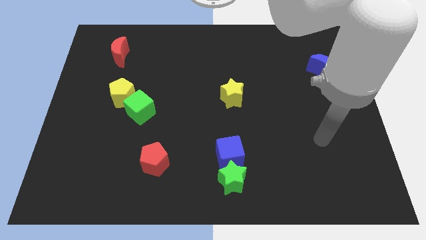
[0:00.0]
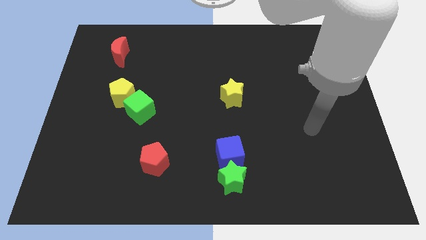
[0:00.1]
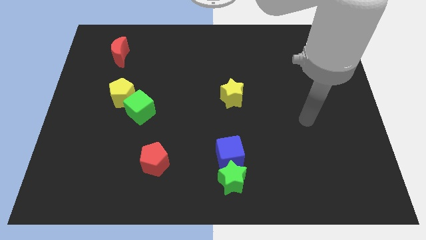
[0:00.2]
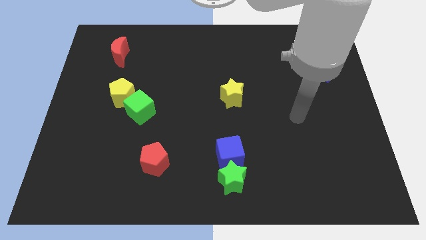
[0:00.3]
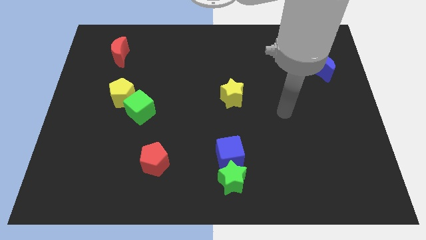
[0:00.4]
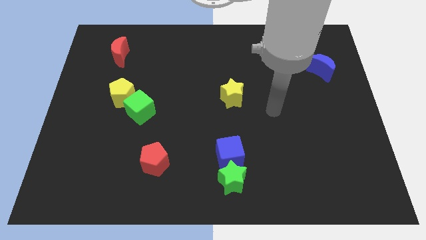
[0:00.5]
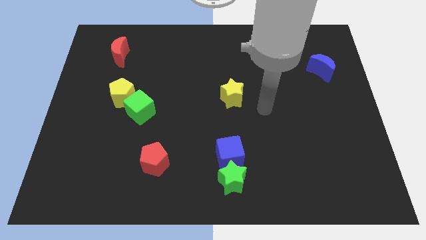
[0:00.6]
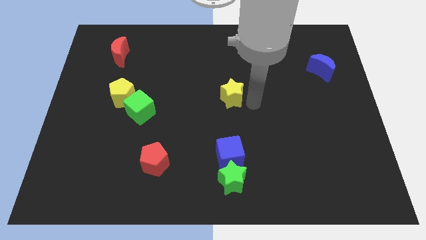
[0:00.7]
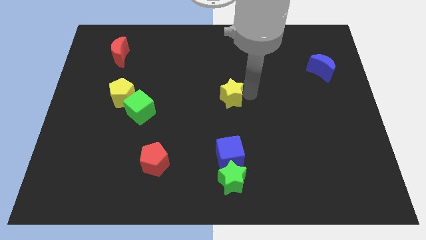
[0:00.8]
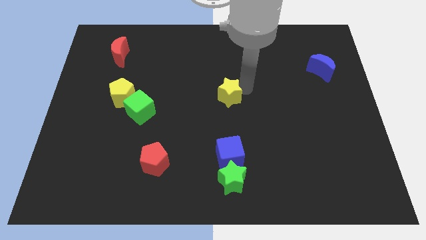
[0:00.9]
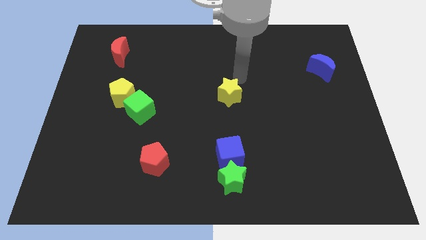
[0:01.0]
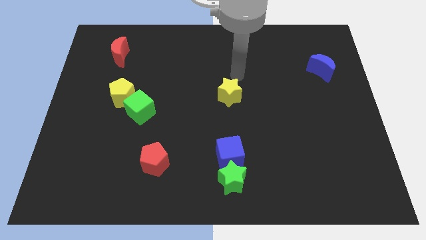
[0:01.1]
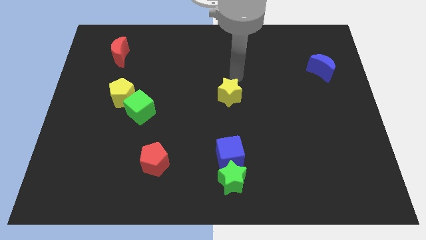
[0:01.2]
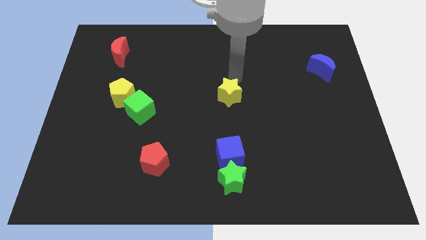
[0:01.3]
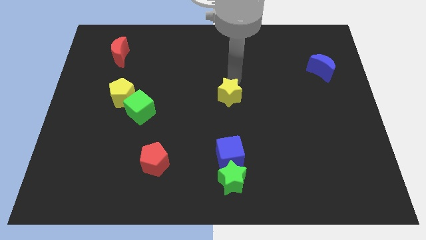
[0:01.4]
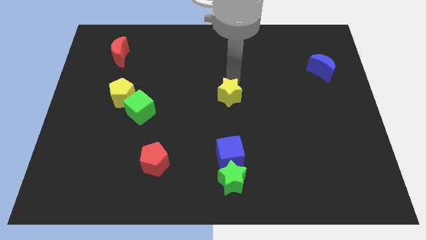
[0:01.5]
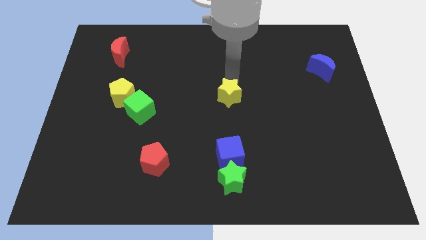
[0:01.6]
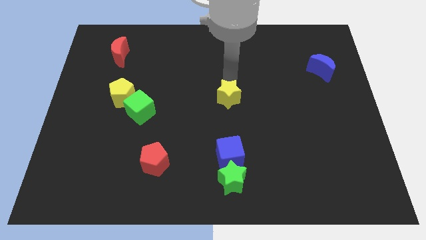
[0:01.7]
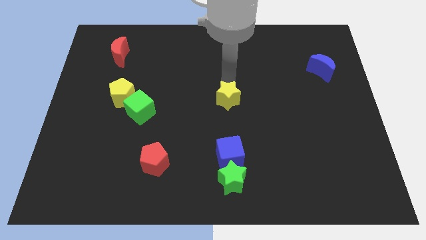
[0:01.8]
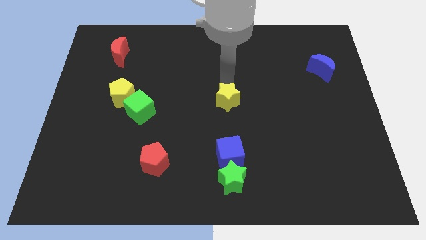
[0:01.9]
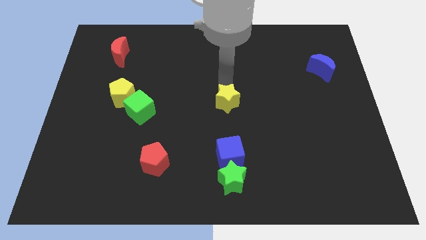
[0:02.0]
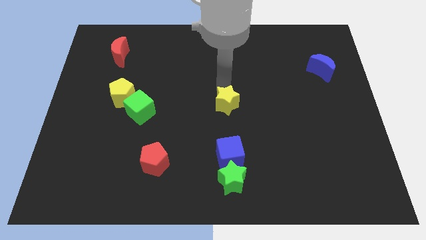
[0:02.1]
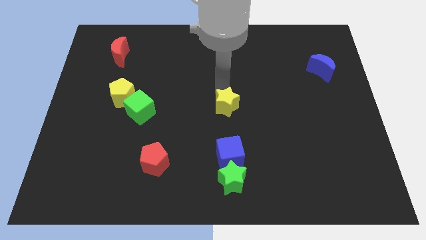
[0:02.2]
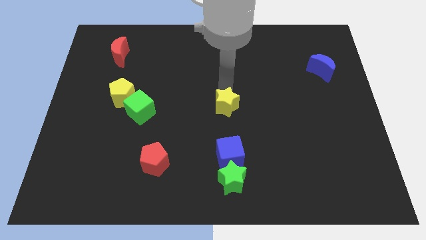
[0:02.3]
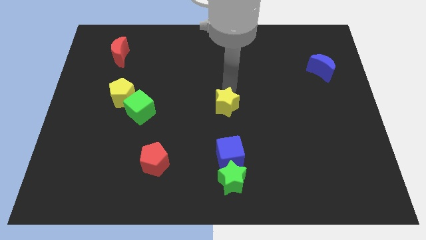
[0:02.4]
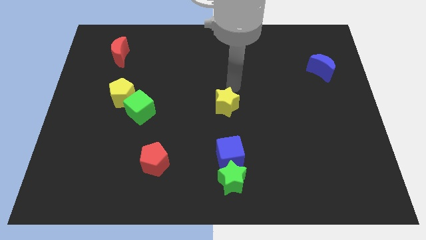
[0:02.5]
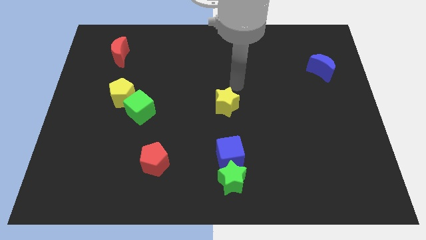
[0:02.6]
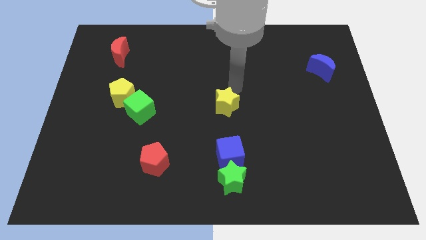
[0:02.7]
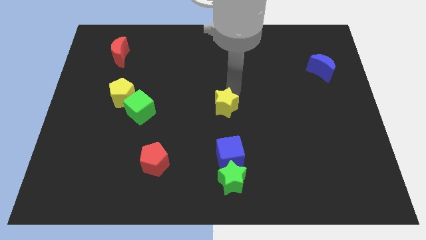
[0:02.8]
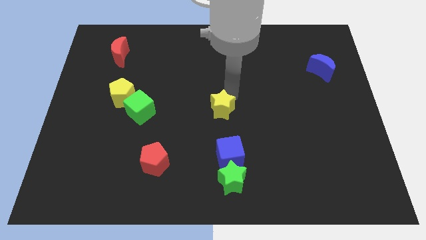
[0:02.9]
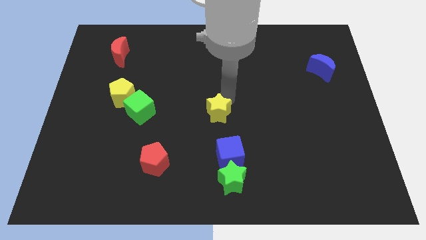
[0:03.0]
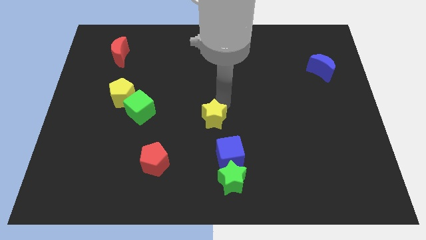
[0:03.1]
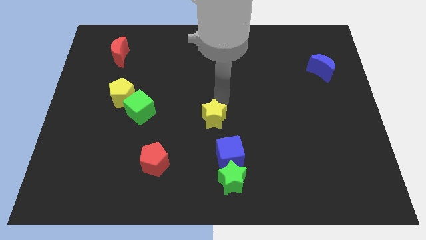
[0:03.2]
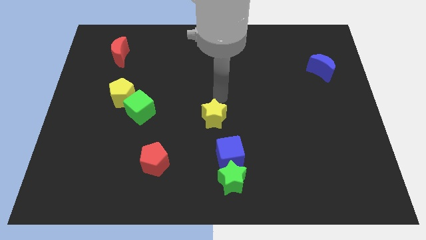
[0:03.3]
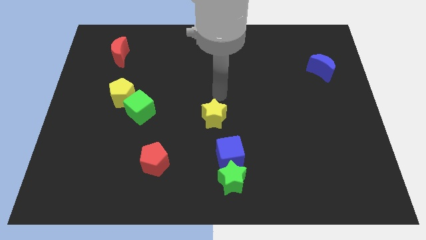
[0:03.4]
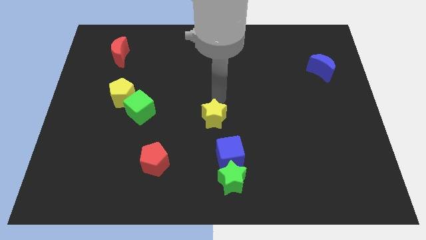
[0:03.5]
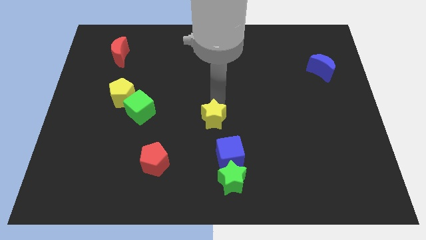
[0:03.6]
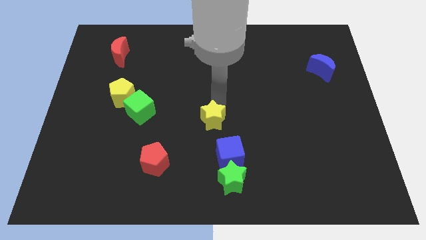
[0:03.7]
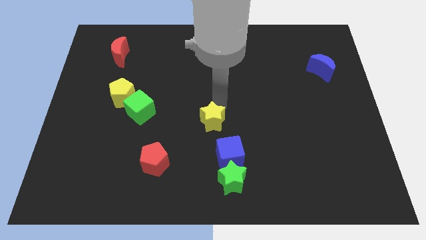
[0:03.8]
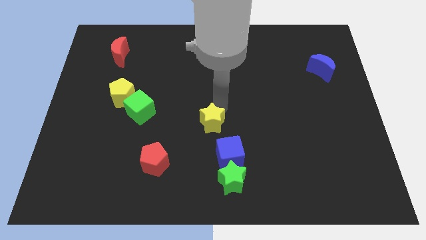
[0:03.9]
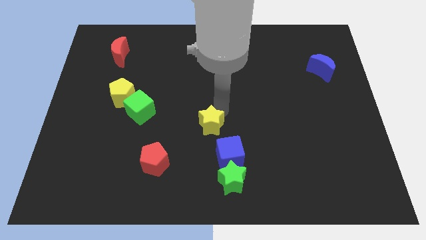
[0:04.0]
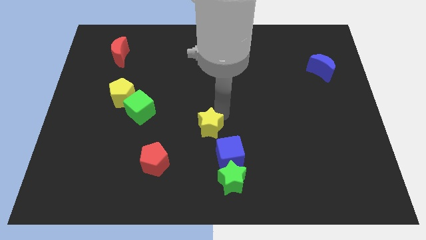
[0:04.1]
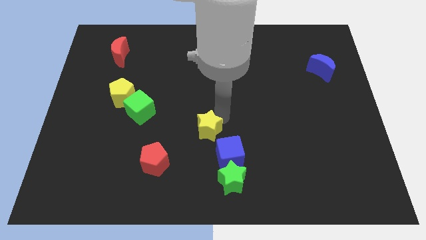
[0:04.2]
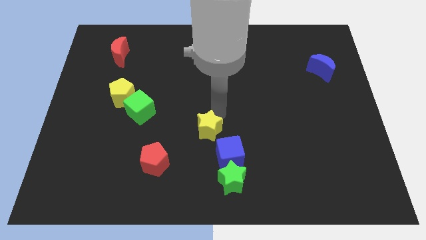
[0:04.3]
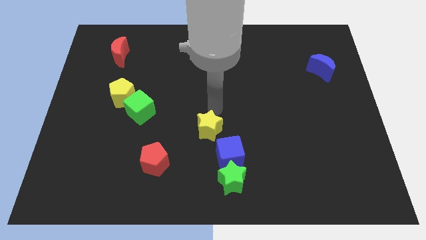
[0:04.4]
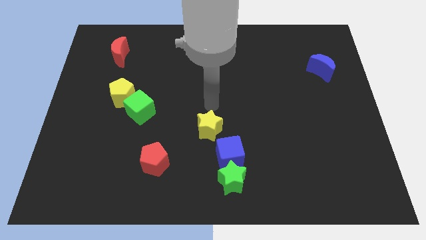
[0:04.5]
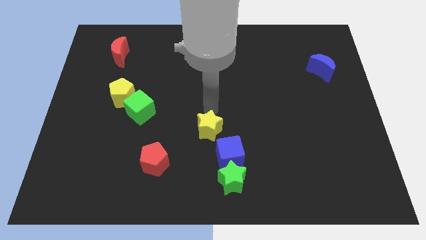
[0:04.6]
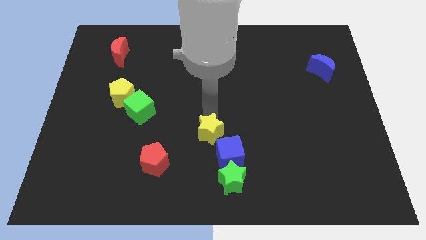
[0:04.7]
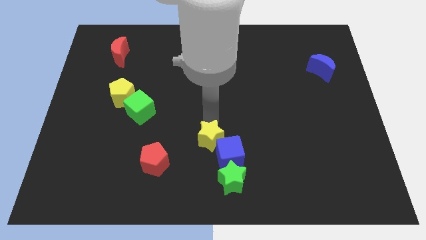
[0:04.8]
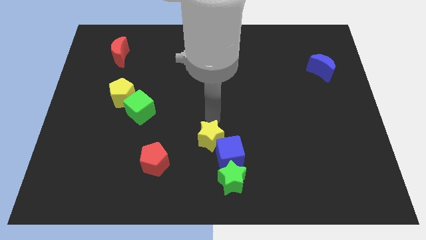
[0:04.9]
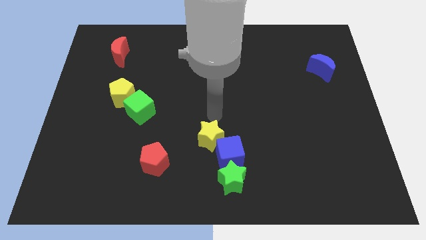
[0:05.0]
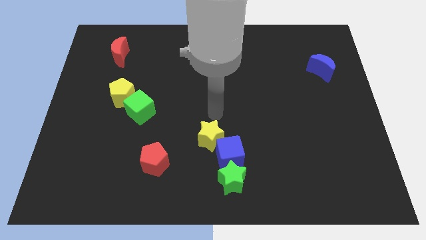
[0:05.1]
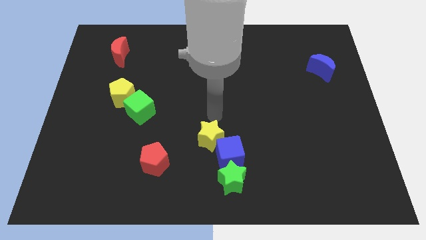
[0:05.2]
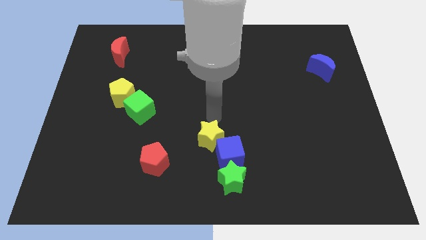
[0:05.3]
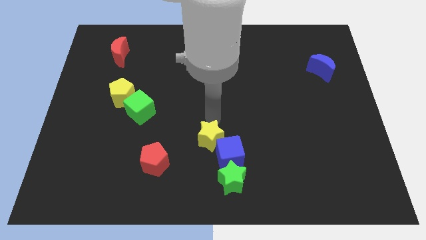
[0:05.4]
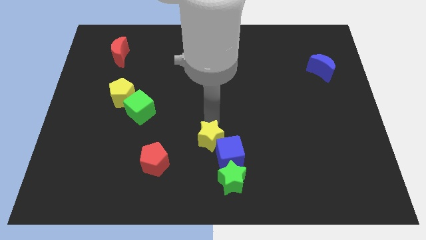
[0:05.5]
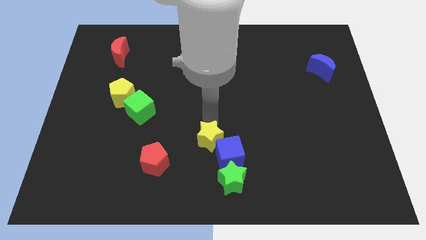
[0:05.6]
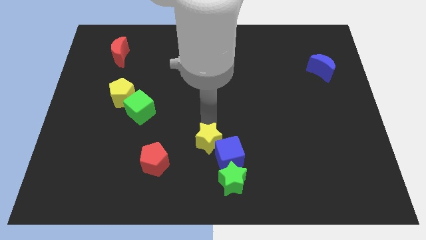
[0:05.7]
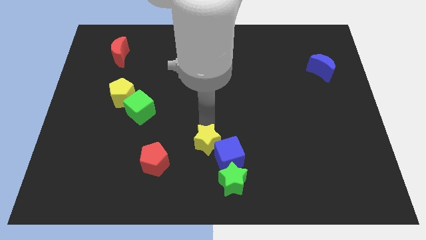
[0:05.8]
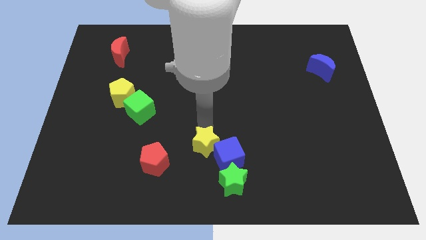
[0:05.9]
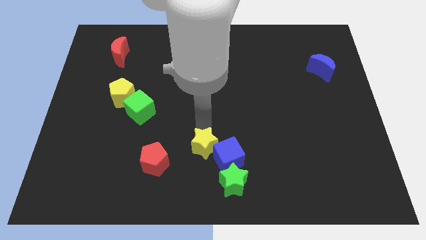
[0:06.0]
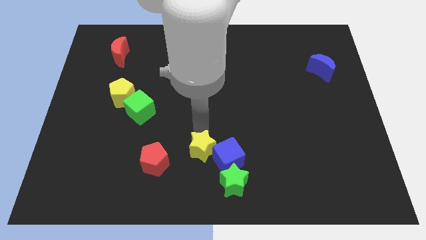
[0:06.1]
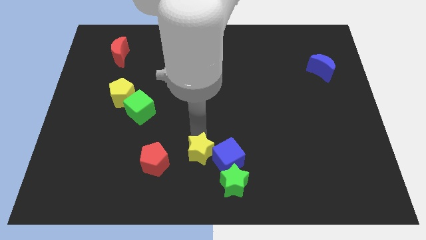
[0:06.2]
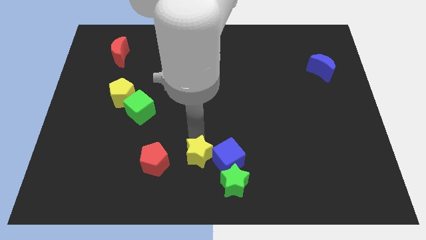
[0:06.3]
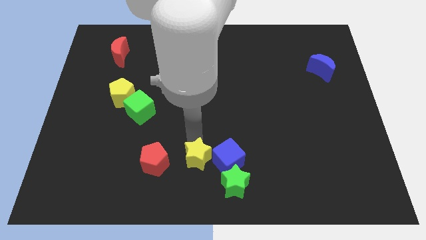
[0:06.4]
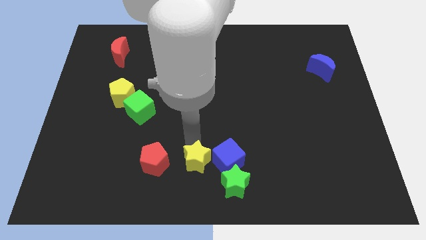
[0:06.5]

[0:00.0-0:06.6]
push the yellow star diagonally down and to the left of the blue cube
